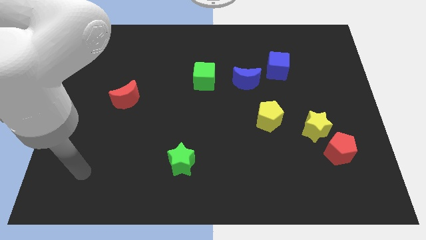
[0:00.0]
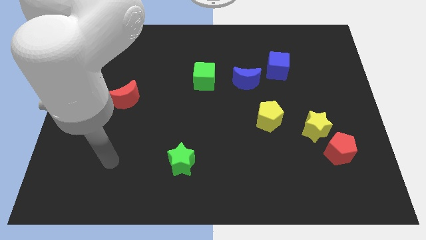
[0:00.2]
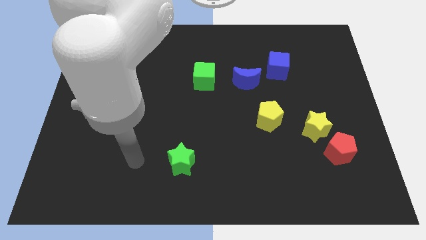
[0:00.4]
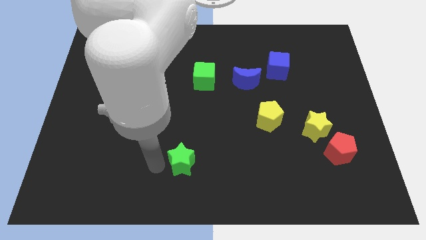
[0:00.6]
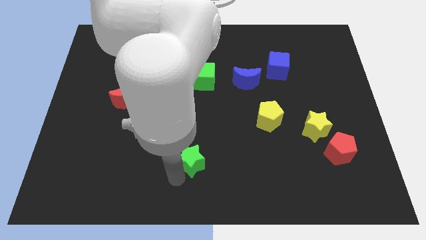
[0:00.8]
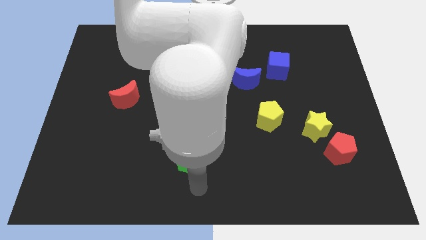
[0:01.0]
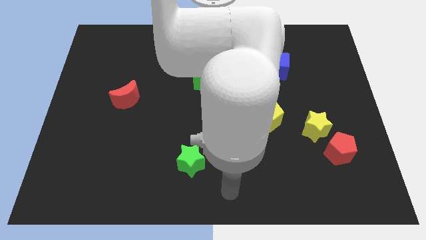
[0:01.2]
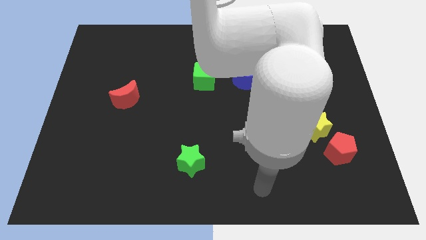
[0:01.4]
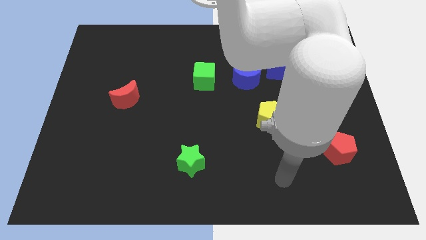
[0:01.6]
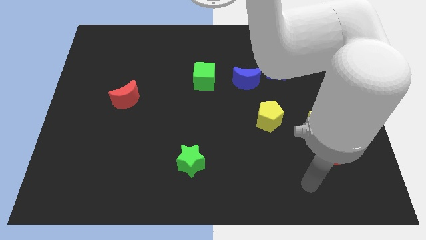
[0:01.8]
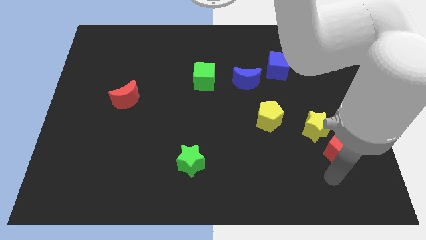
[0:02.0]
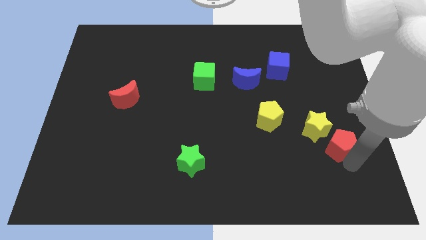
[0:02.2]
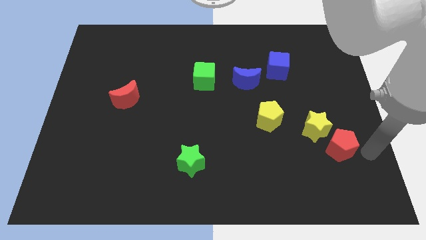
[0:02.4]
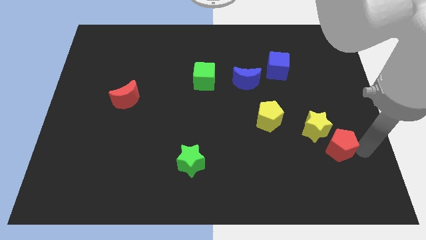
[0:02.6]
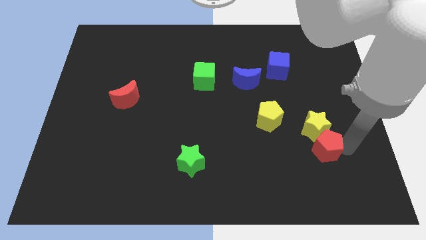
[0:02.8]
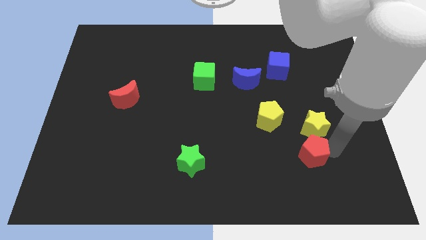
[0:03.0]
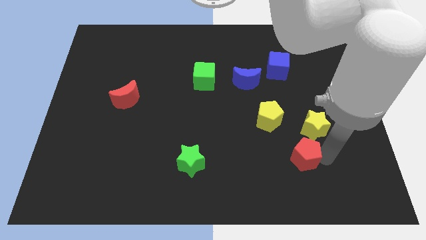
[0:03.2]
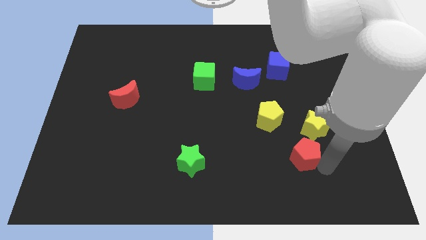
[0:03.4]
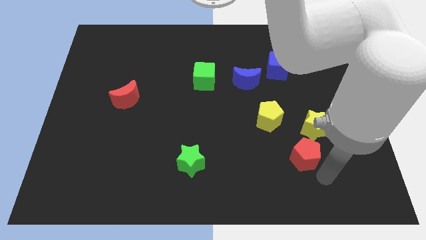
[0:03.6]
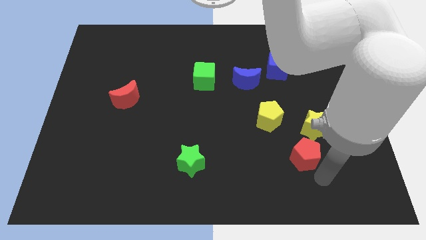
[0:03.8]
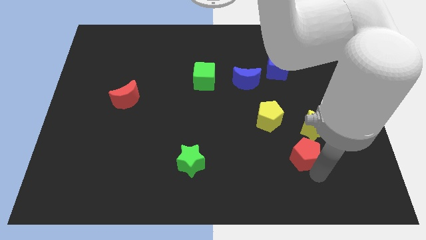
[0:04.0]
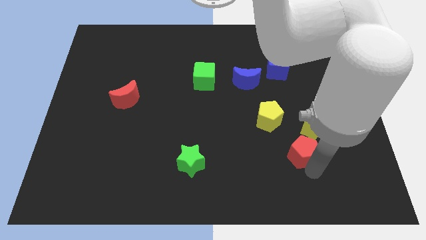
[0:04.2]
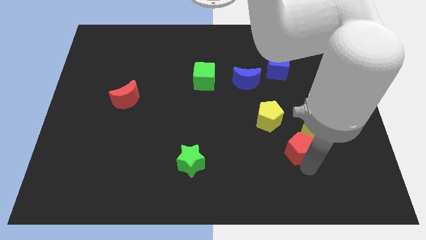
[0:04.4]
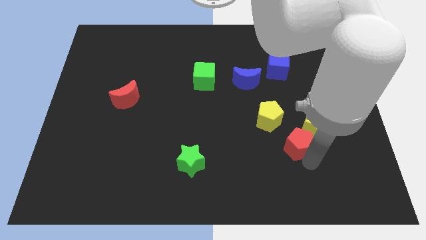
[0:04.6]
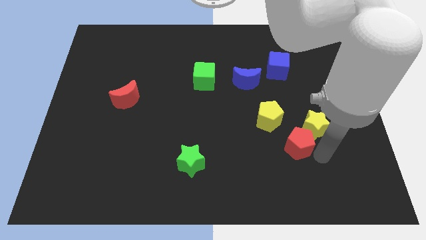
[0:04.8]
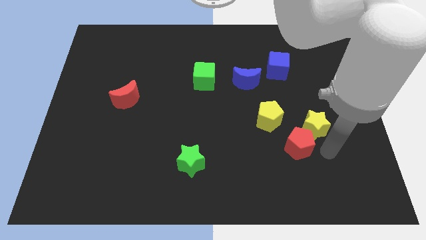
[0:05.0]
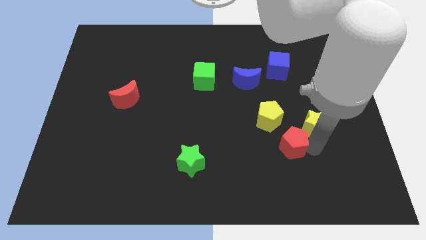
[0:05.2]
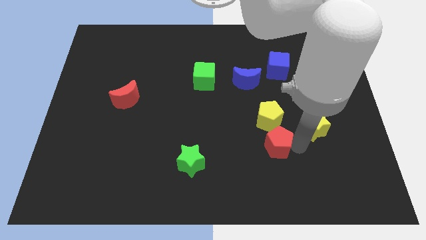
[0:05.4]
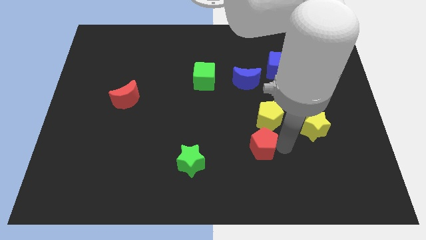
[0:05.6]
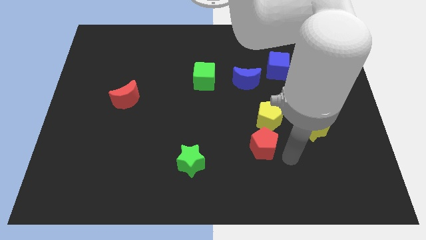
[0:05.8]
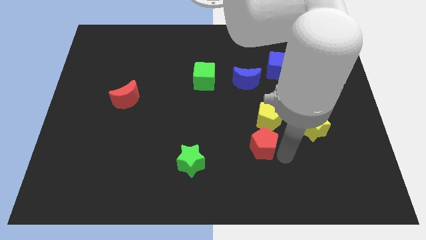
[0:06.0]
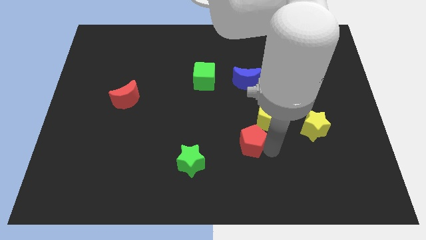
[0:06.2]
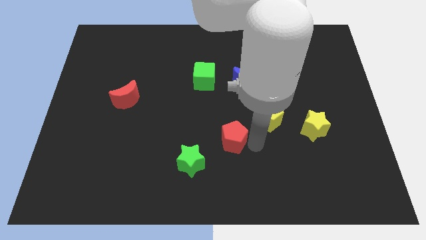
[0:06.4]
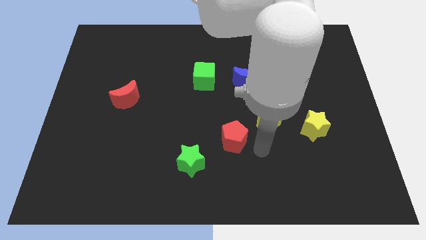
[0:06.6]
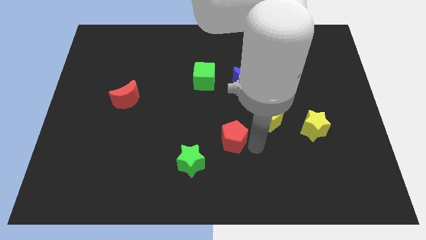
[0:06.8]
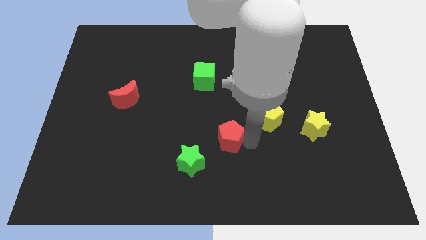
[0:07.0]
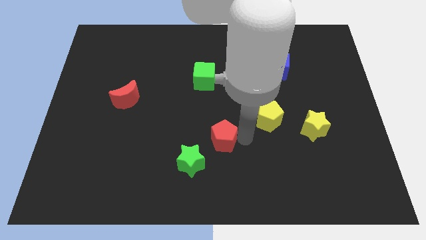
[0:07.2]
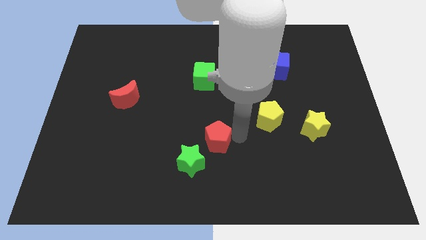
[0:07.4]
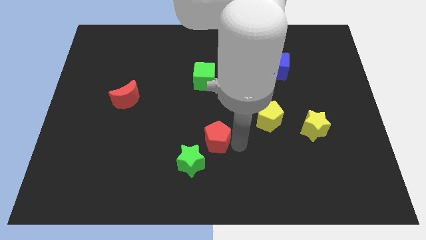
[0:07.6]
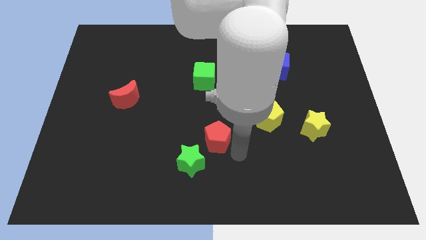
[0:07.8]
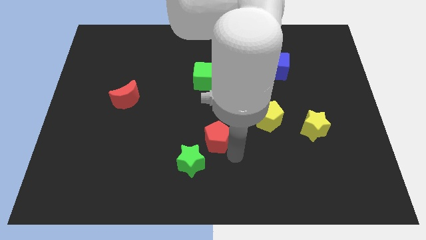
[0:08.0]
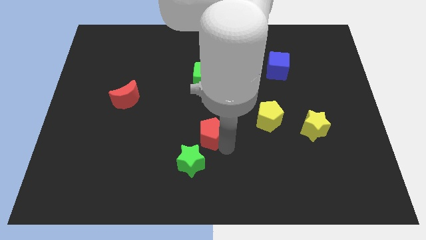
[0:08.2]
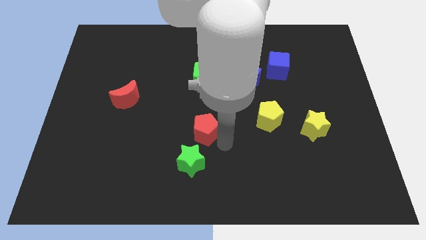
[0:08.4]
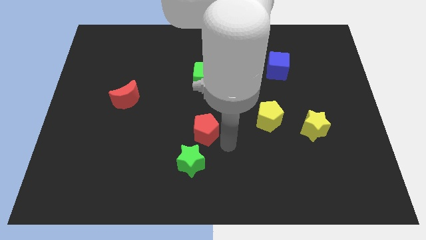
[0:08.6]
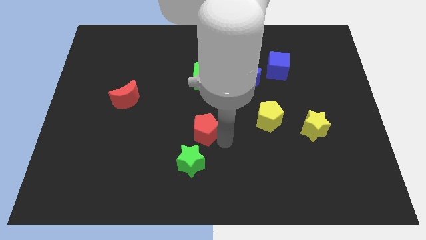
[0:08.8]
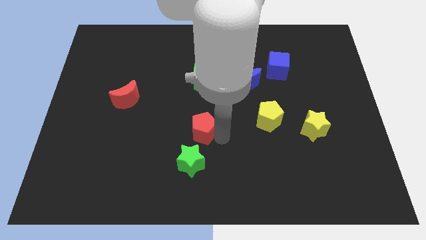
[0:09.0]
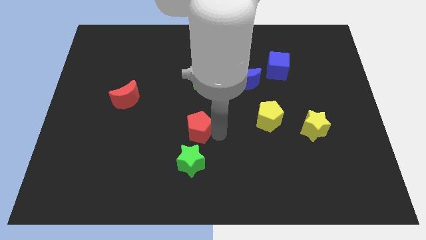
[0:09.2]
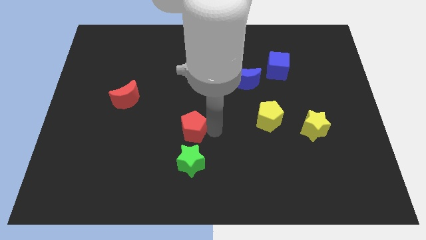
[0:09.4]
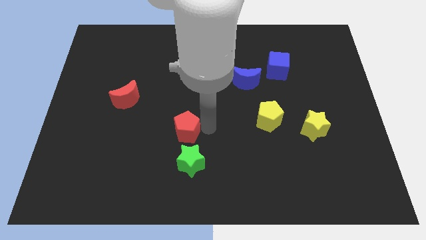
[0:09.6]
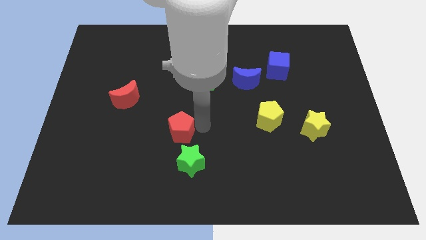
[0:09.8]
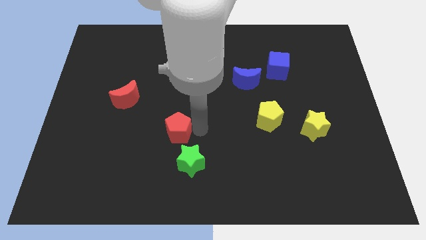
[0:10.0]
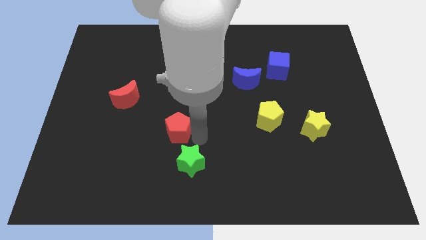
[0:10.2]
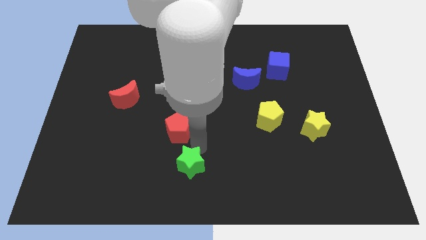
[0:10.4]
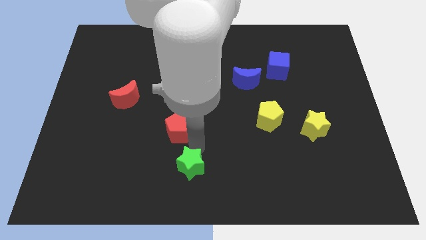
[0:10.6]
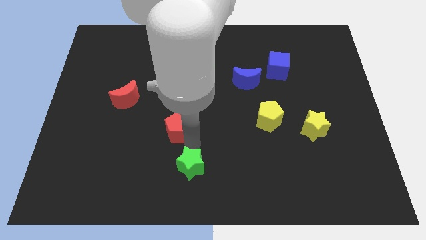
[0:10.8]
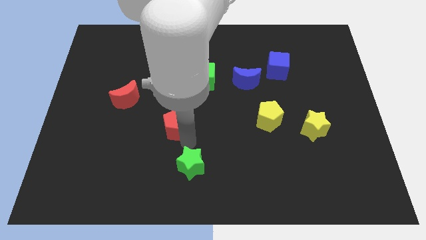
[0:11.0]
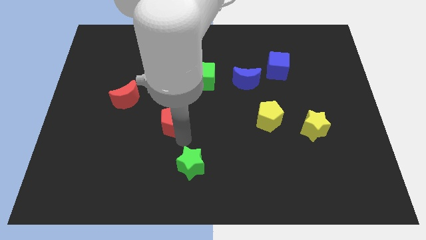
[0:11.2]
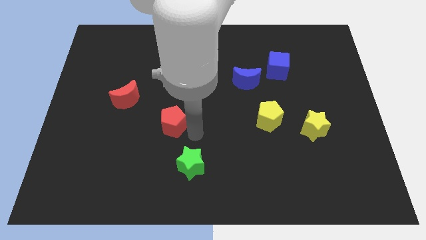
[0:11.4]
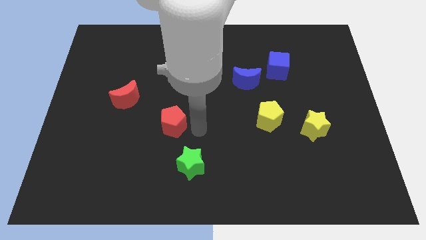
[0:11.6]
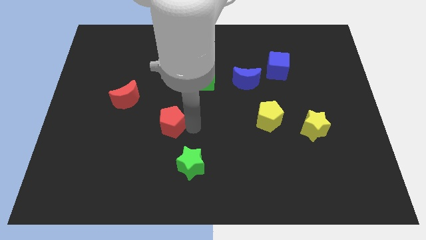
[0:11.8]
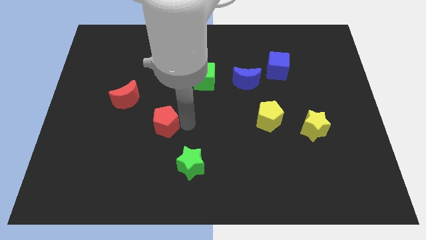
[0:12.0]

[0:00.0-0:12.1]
move the red pentagon to the bottom right of the red moon

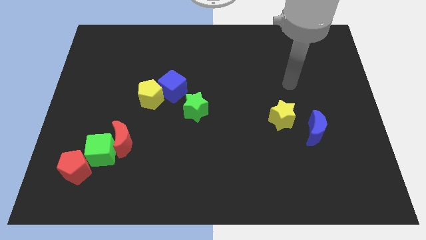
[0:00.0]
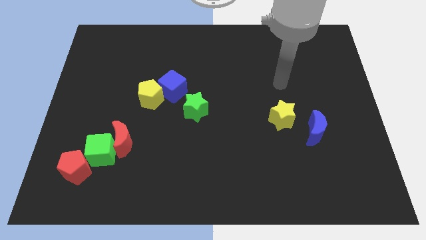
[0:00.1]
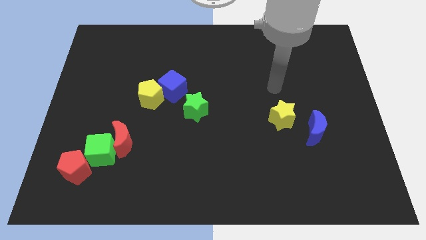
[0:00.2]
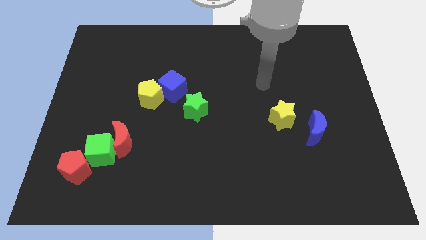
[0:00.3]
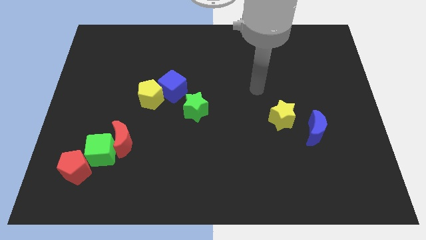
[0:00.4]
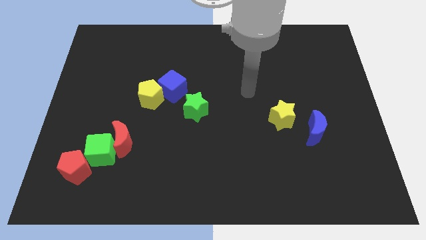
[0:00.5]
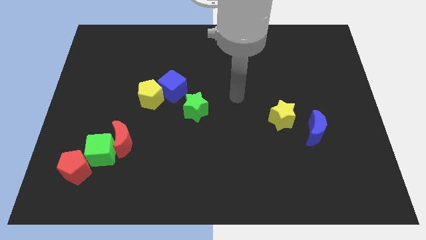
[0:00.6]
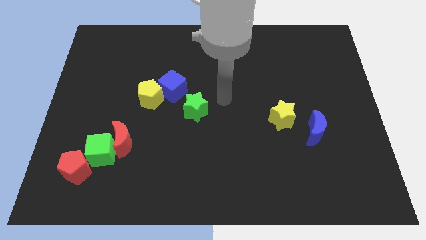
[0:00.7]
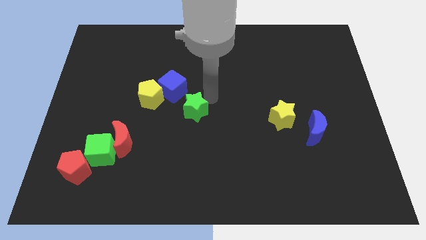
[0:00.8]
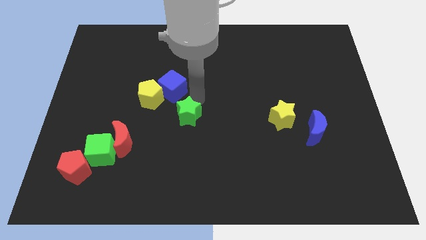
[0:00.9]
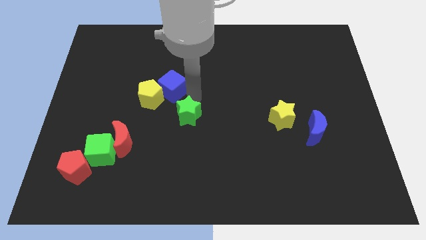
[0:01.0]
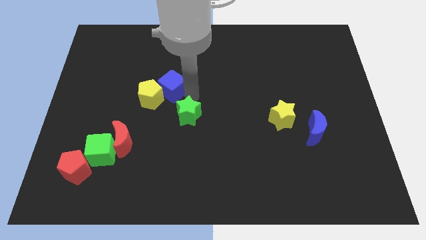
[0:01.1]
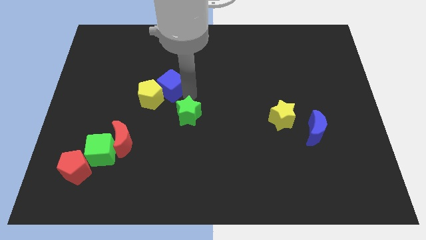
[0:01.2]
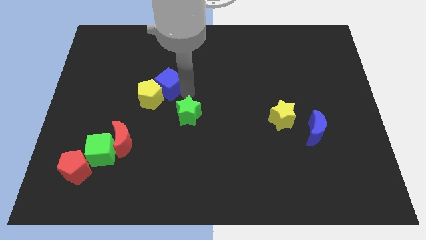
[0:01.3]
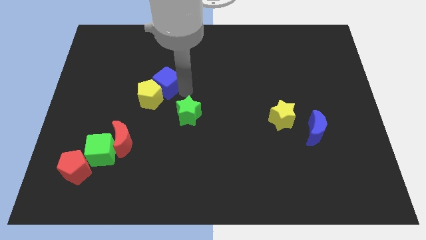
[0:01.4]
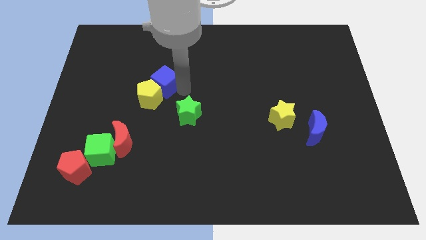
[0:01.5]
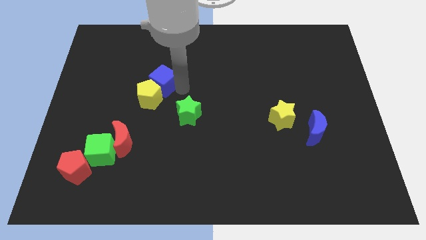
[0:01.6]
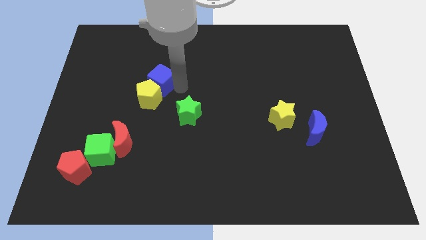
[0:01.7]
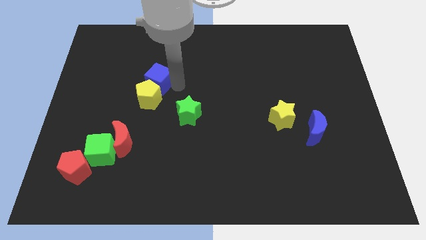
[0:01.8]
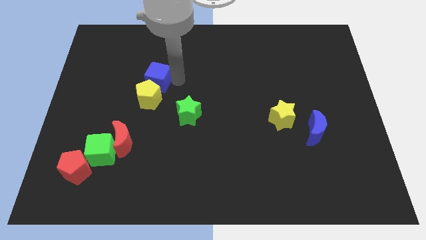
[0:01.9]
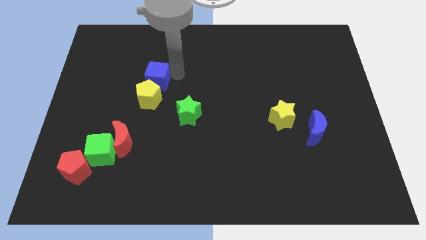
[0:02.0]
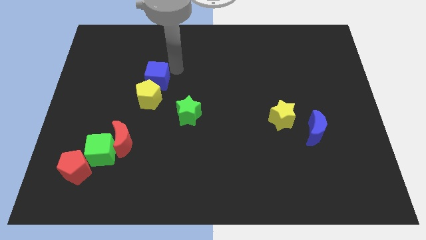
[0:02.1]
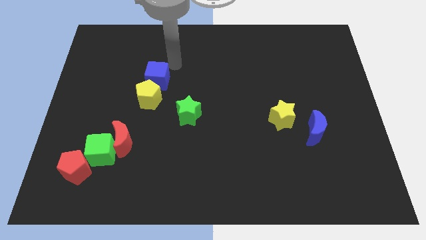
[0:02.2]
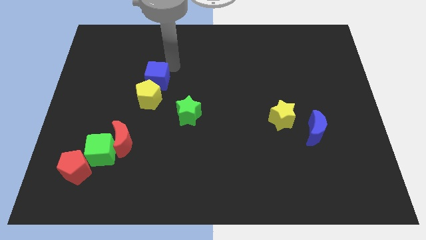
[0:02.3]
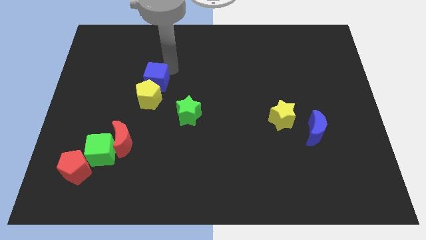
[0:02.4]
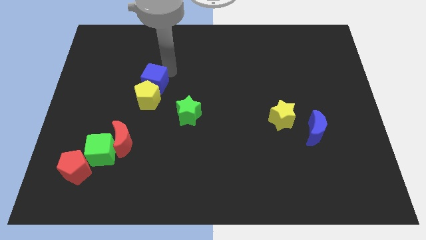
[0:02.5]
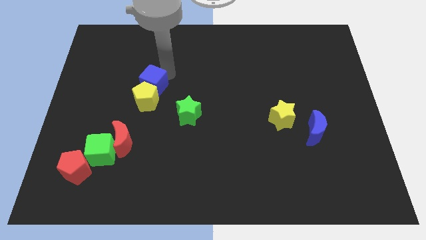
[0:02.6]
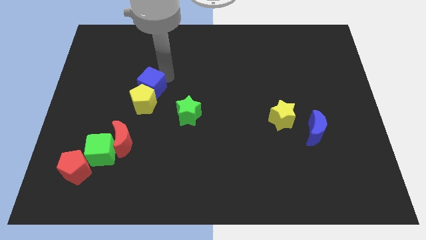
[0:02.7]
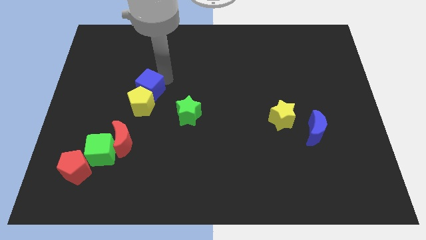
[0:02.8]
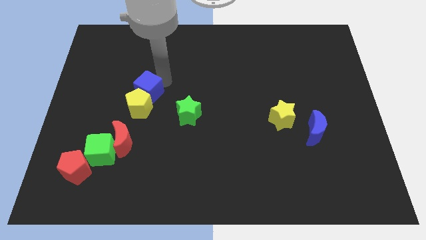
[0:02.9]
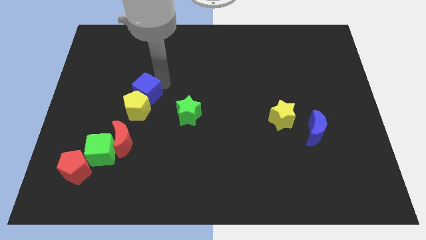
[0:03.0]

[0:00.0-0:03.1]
push the blue cube to the top side of the red moon
